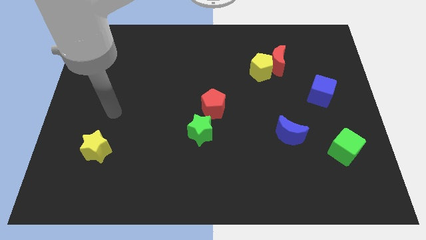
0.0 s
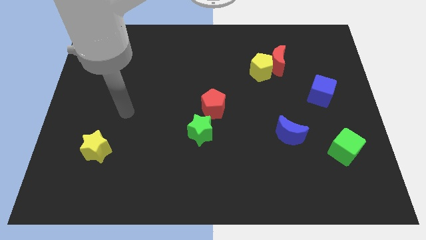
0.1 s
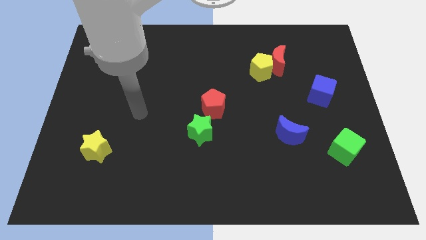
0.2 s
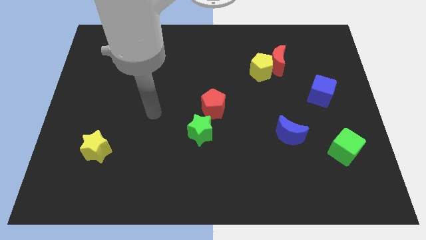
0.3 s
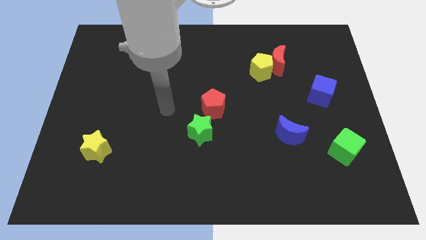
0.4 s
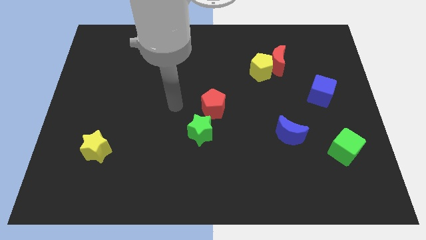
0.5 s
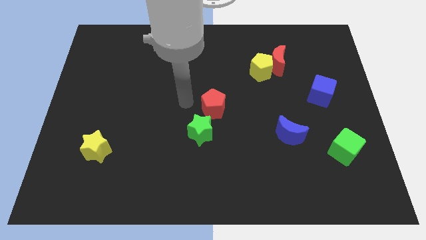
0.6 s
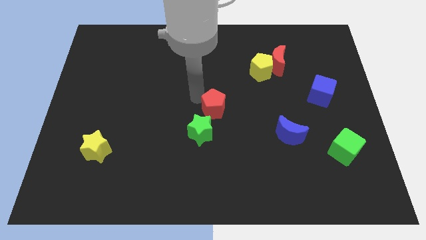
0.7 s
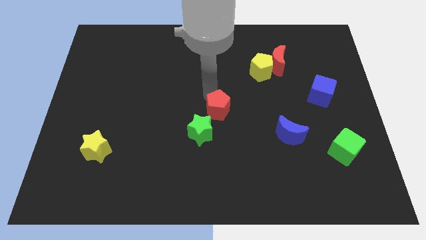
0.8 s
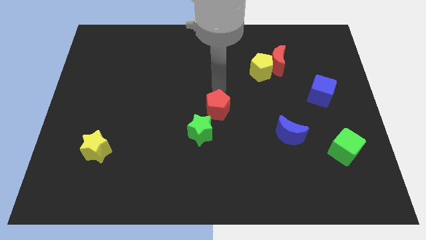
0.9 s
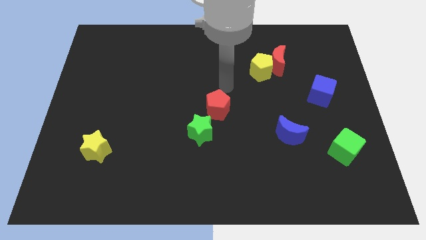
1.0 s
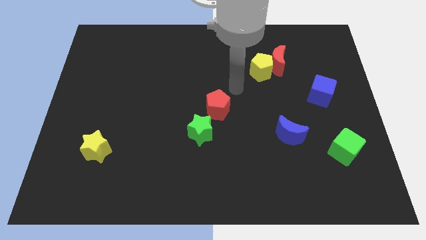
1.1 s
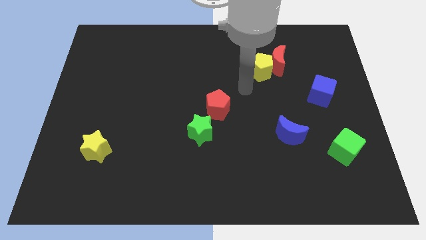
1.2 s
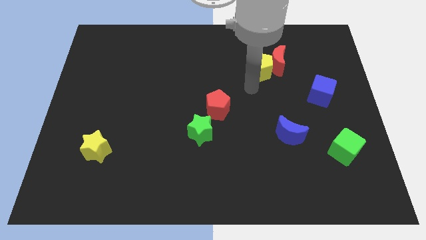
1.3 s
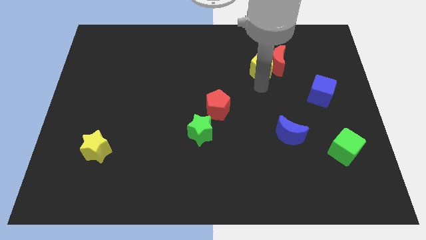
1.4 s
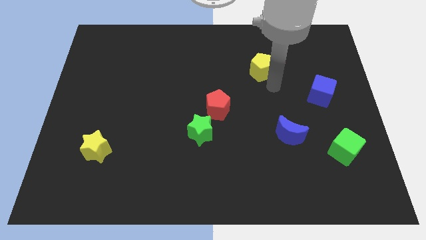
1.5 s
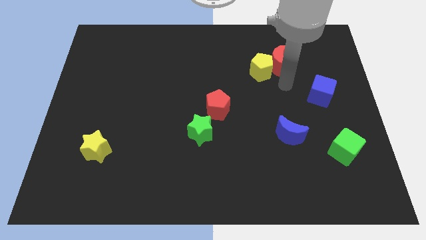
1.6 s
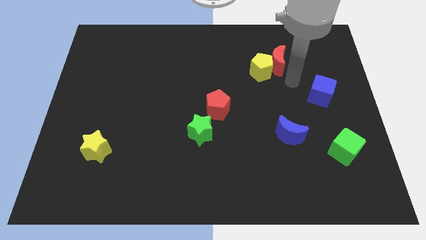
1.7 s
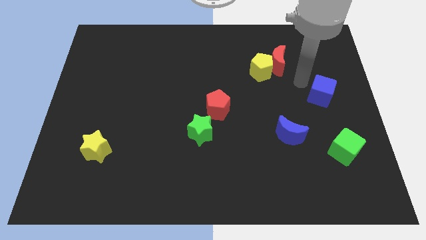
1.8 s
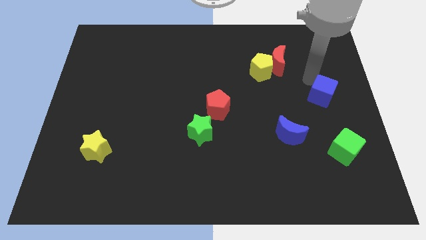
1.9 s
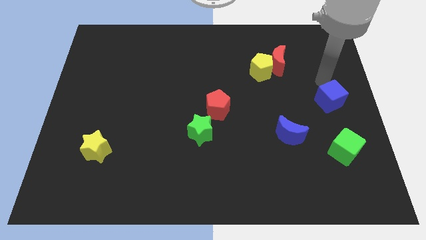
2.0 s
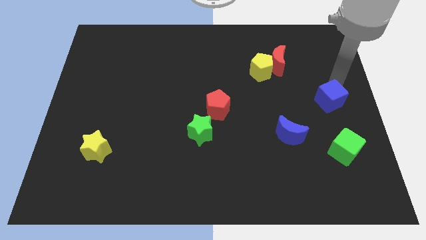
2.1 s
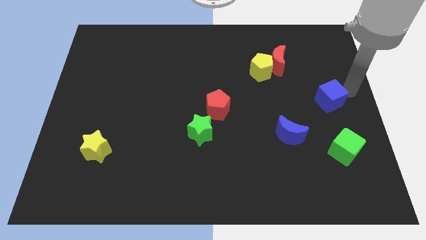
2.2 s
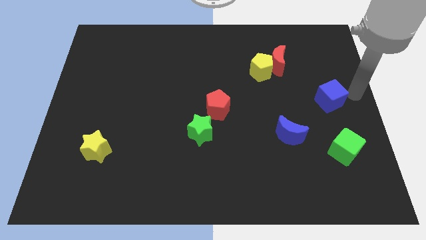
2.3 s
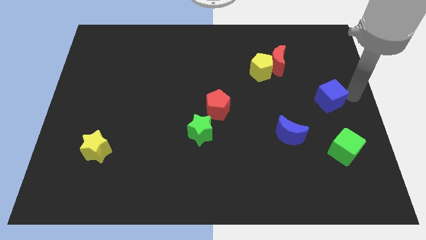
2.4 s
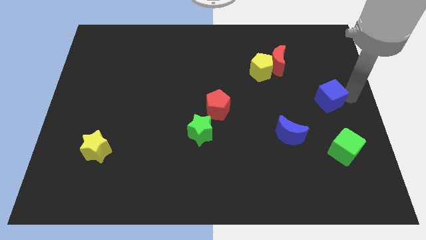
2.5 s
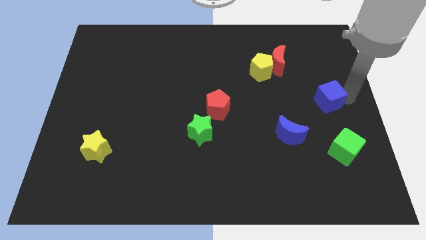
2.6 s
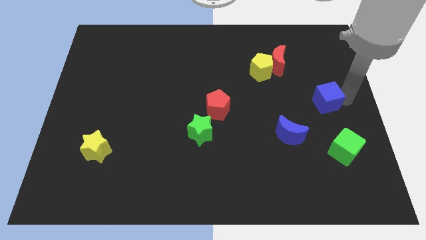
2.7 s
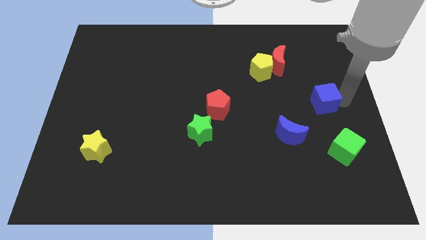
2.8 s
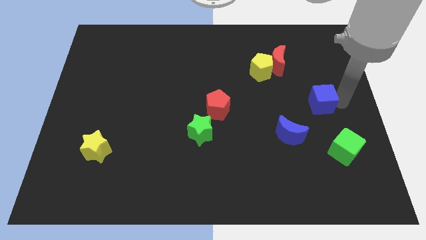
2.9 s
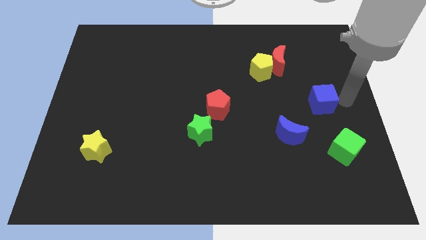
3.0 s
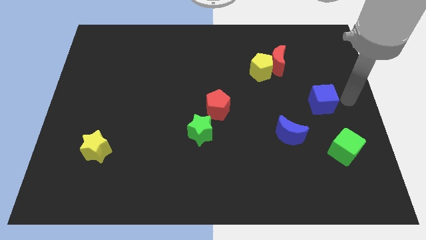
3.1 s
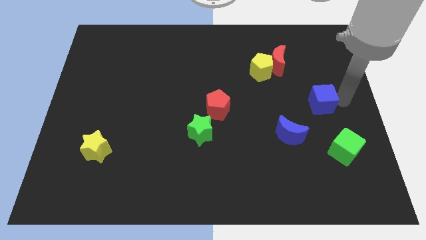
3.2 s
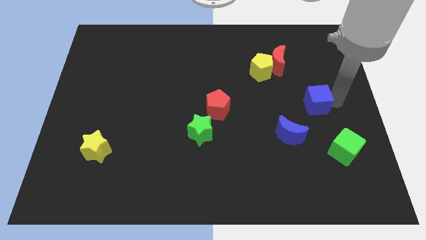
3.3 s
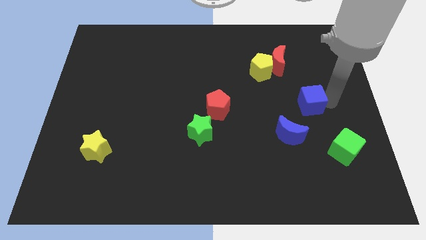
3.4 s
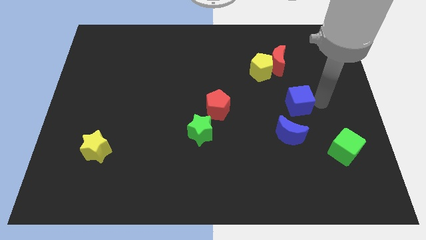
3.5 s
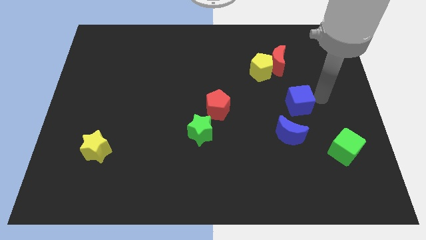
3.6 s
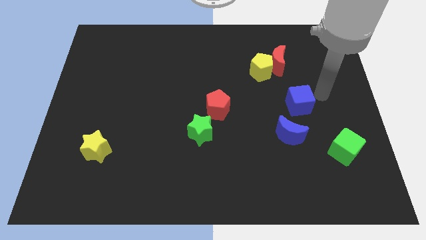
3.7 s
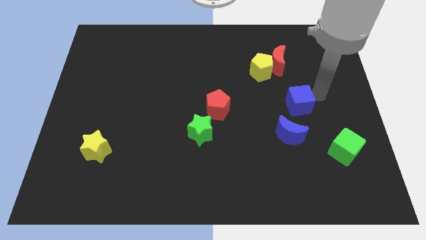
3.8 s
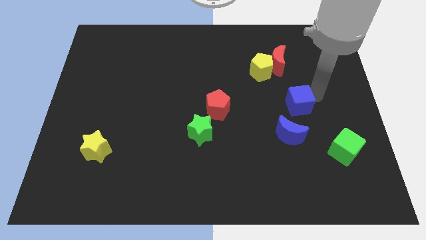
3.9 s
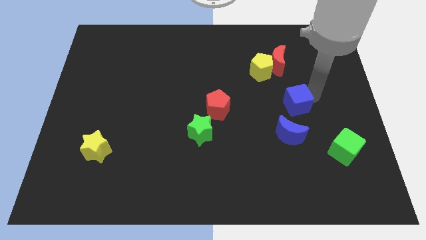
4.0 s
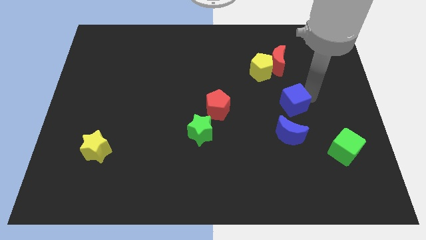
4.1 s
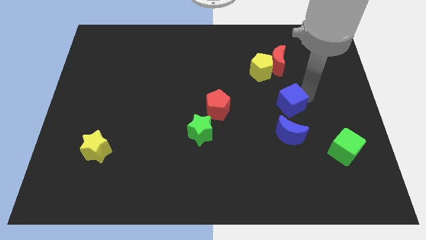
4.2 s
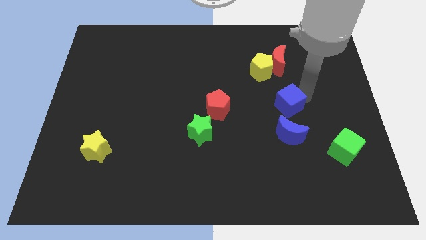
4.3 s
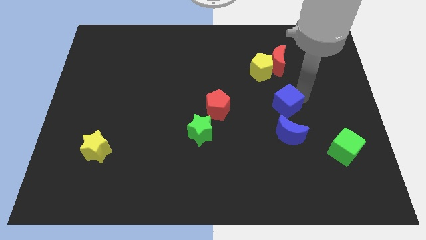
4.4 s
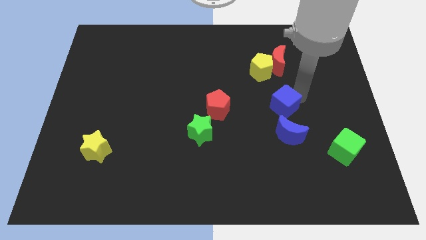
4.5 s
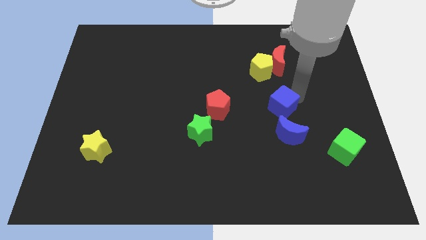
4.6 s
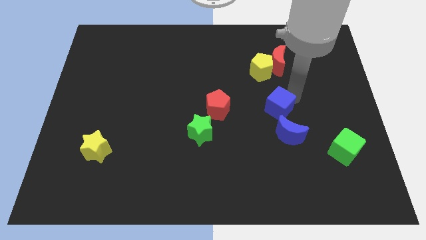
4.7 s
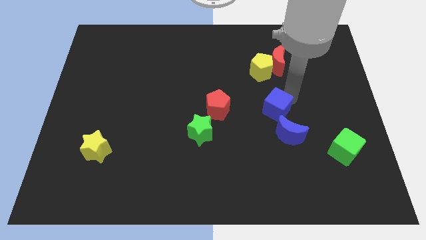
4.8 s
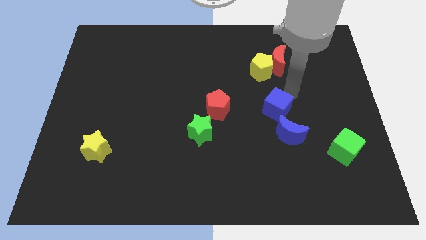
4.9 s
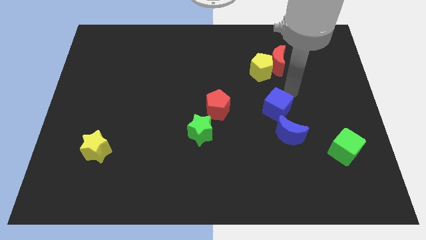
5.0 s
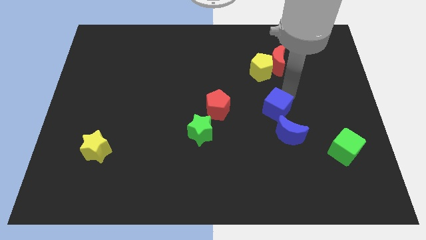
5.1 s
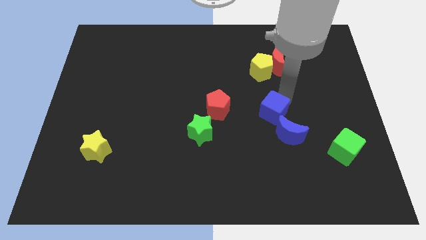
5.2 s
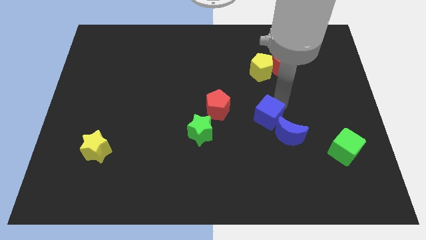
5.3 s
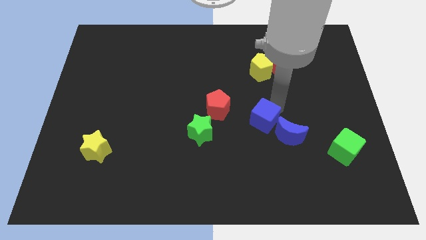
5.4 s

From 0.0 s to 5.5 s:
put the blue cube right of the green star

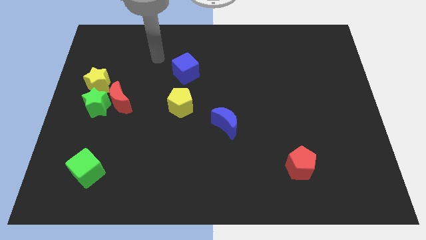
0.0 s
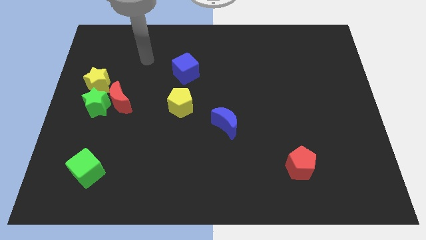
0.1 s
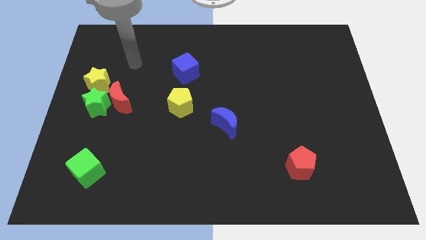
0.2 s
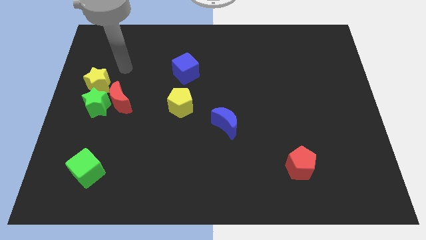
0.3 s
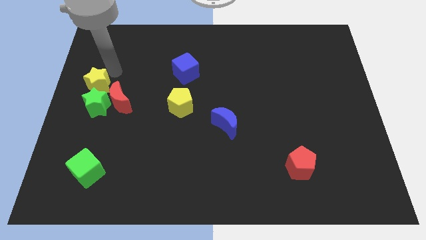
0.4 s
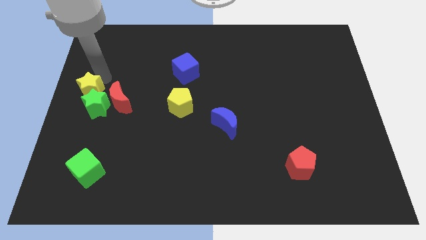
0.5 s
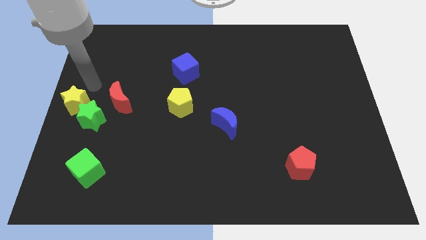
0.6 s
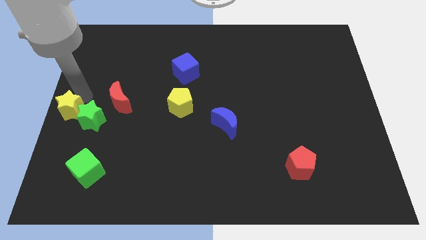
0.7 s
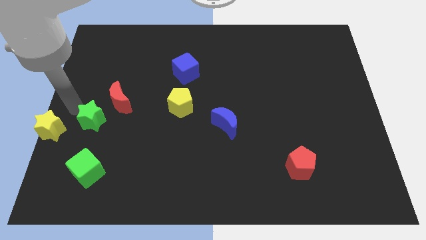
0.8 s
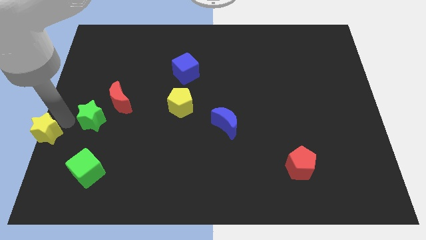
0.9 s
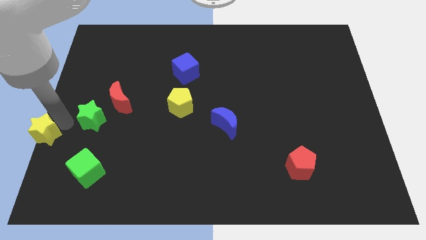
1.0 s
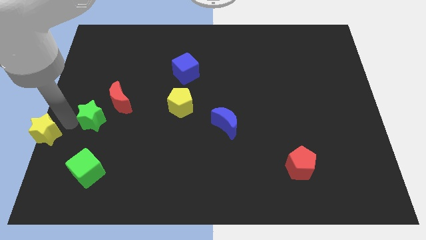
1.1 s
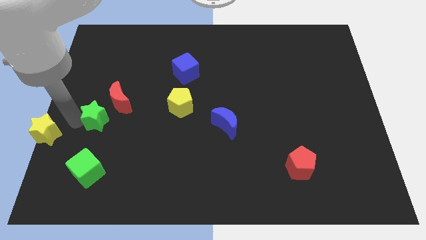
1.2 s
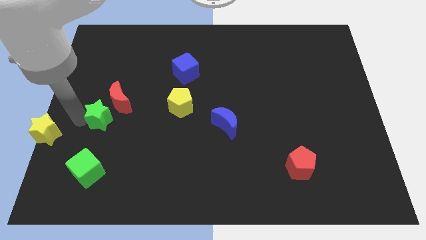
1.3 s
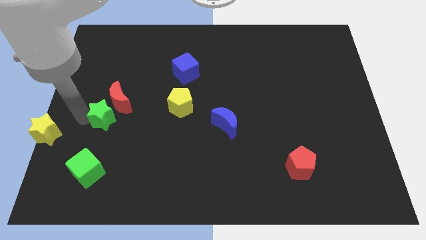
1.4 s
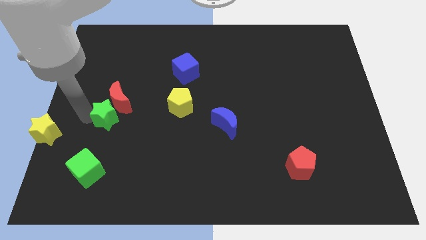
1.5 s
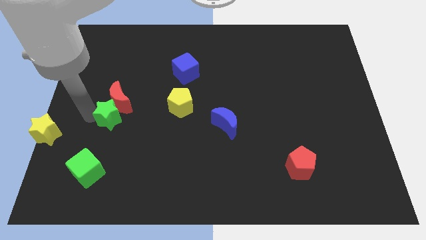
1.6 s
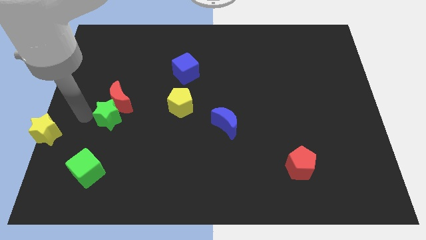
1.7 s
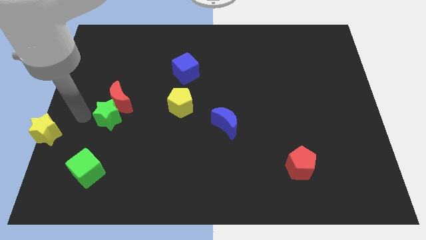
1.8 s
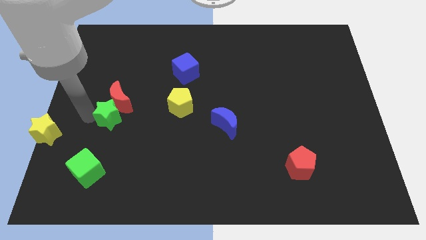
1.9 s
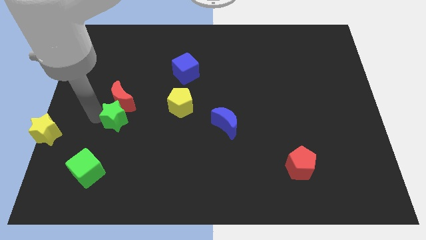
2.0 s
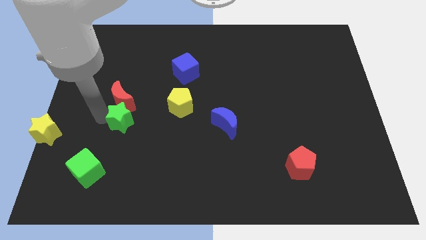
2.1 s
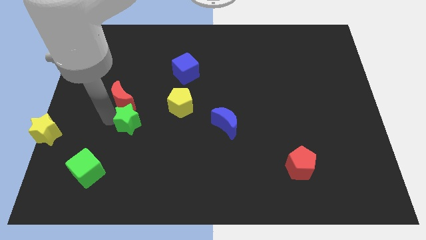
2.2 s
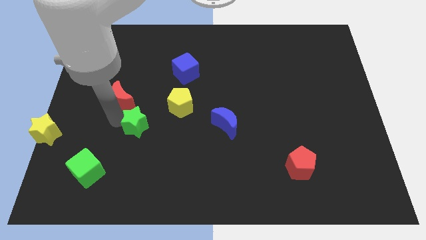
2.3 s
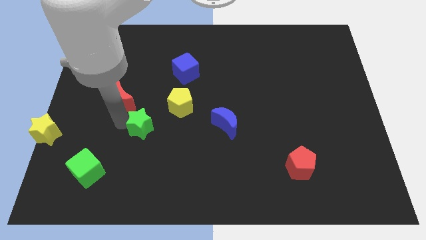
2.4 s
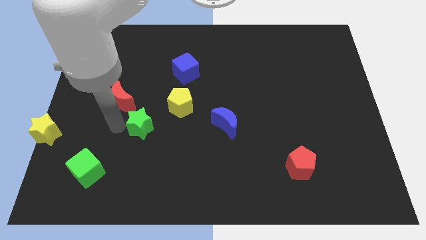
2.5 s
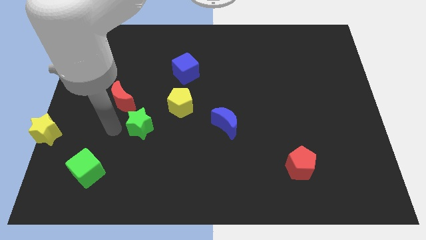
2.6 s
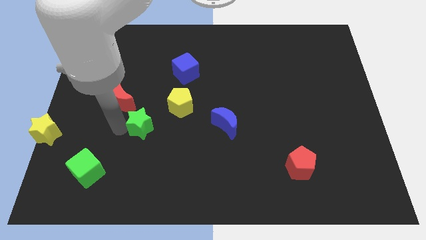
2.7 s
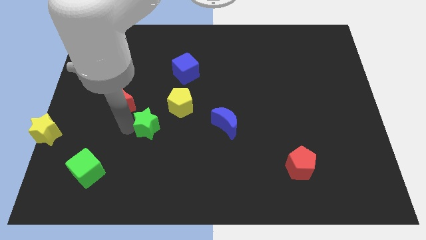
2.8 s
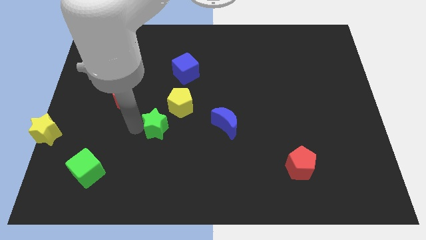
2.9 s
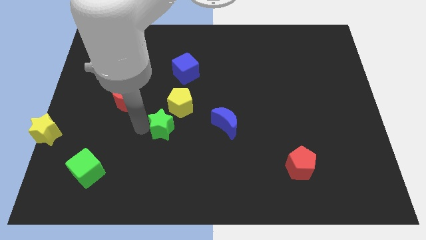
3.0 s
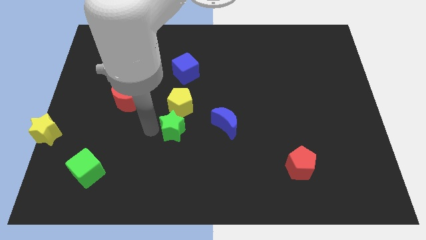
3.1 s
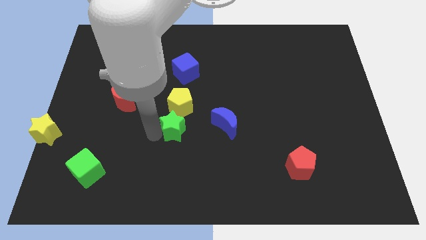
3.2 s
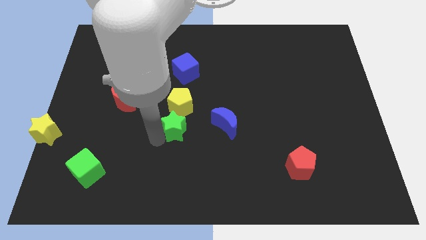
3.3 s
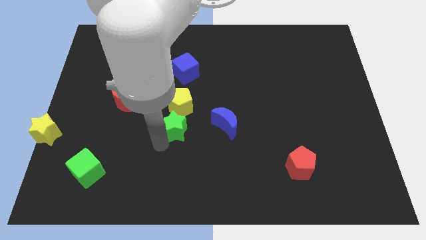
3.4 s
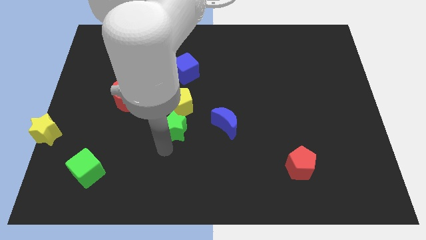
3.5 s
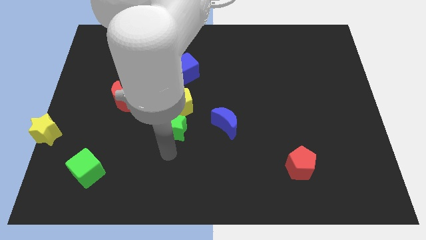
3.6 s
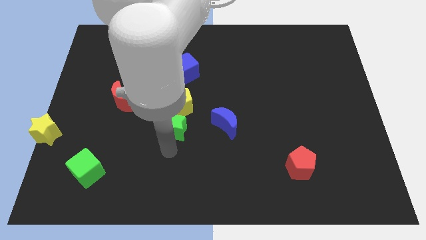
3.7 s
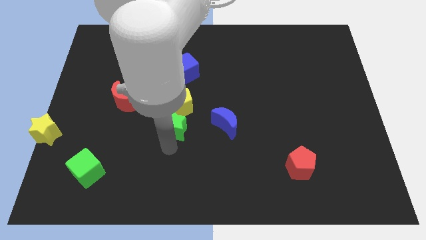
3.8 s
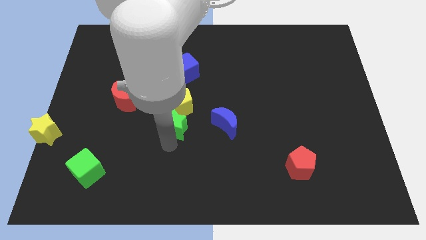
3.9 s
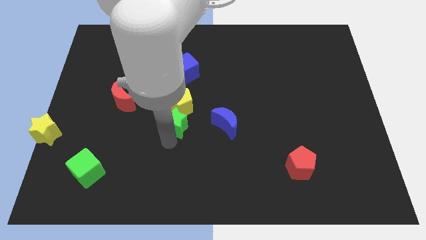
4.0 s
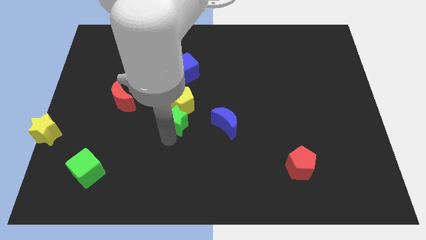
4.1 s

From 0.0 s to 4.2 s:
move the green star below the blue cube
